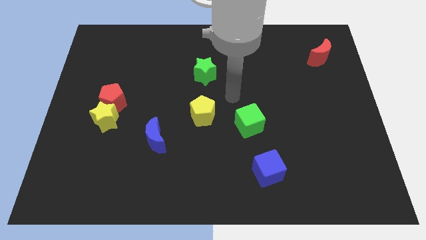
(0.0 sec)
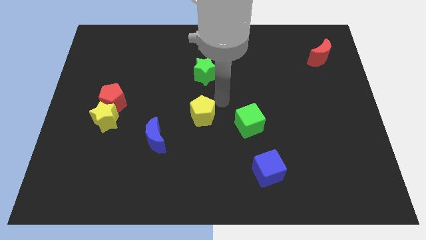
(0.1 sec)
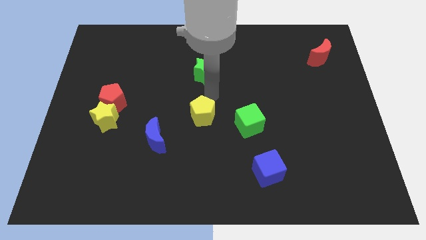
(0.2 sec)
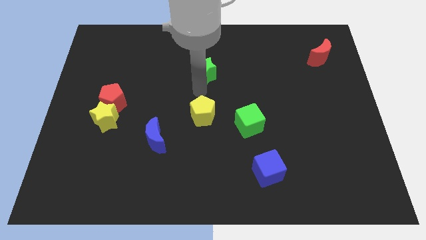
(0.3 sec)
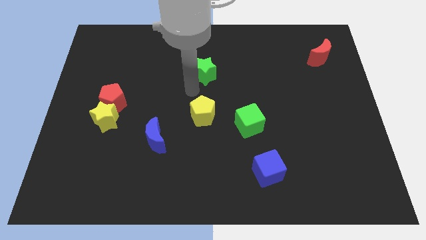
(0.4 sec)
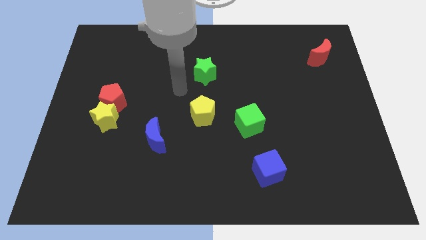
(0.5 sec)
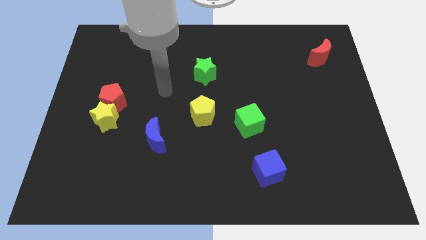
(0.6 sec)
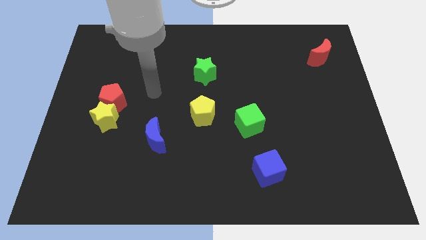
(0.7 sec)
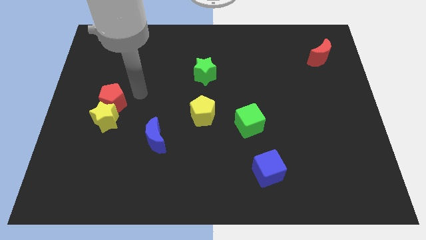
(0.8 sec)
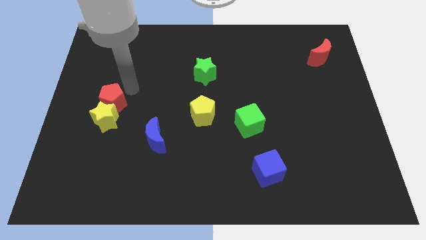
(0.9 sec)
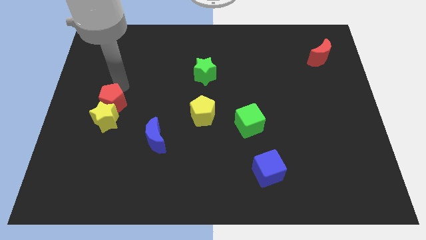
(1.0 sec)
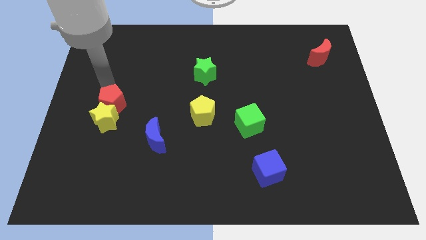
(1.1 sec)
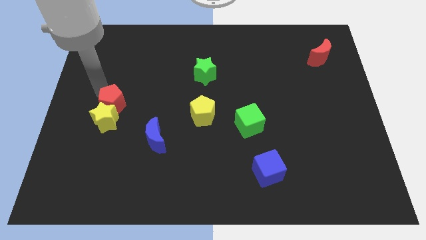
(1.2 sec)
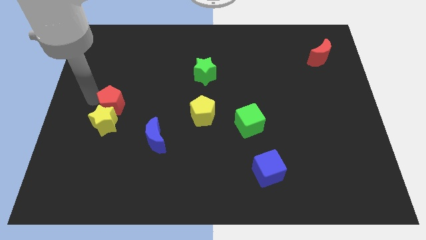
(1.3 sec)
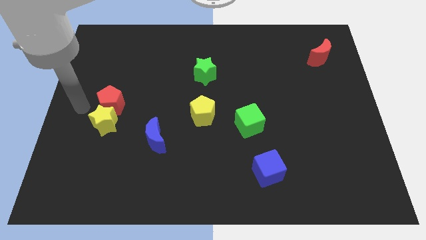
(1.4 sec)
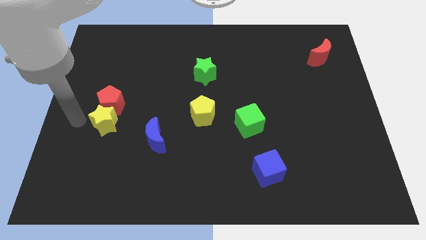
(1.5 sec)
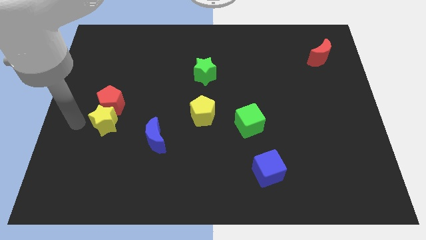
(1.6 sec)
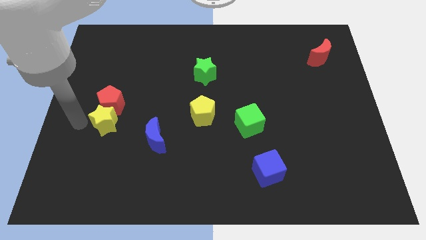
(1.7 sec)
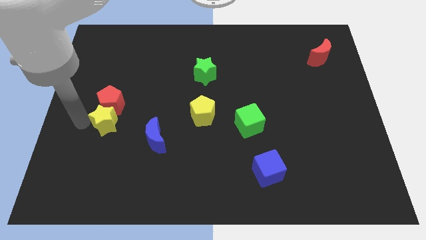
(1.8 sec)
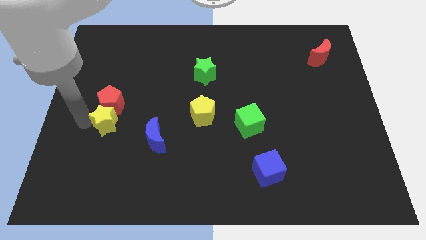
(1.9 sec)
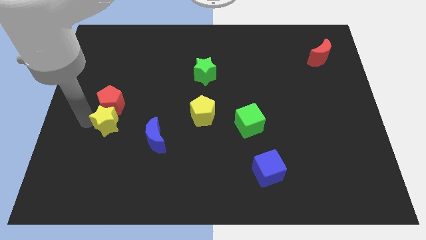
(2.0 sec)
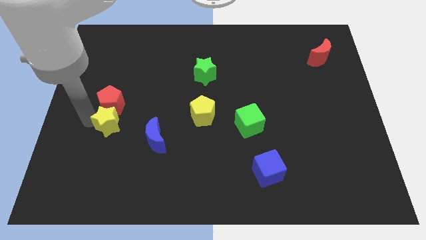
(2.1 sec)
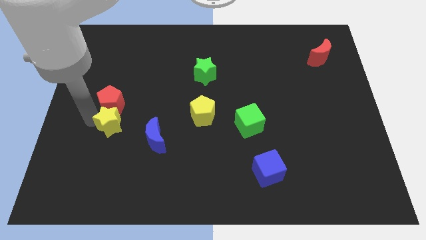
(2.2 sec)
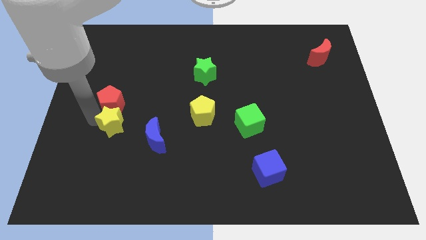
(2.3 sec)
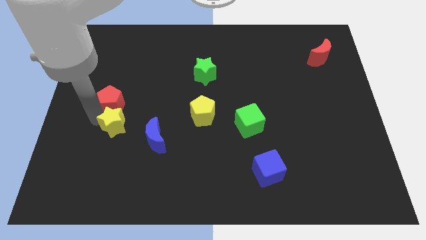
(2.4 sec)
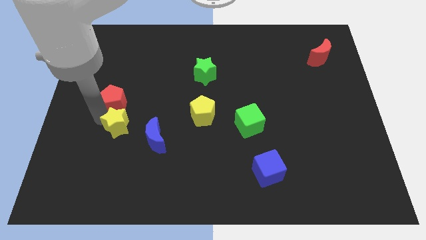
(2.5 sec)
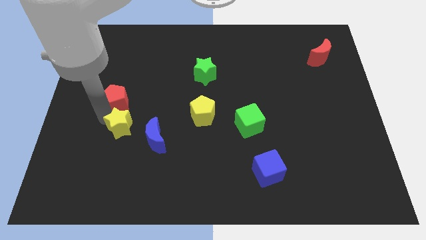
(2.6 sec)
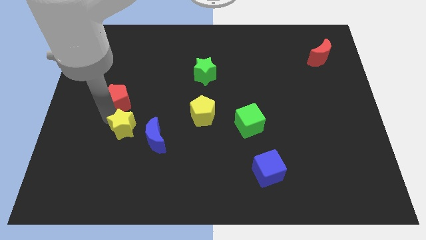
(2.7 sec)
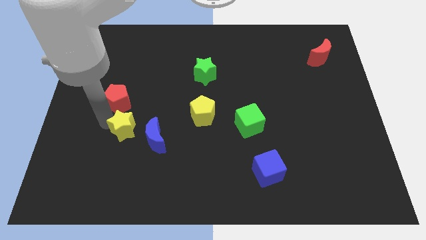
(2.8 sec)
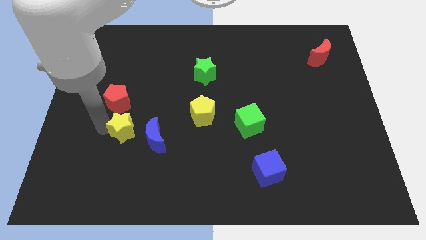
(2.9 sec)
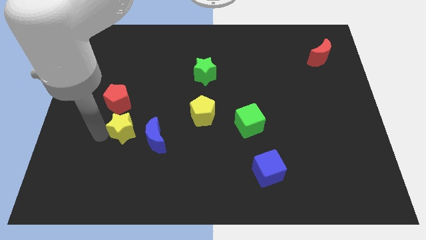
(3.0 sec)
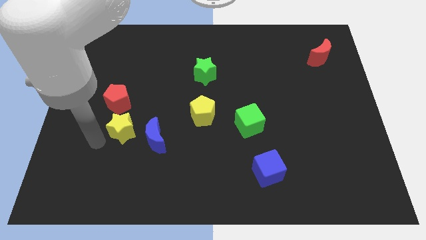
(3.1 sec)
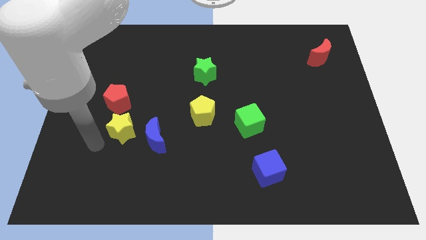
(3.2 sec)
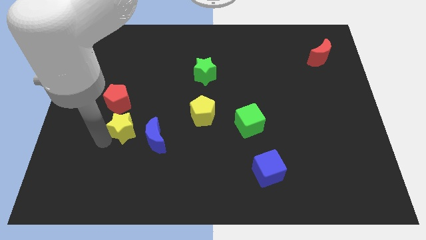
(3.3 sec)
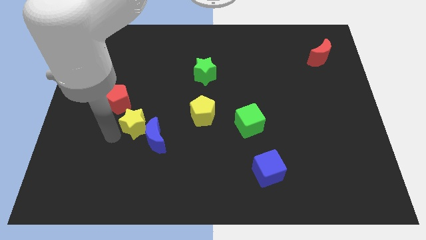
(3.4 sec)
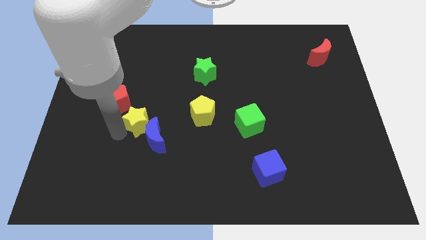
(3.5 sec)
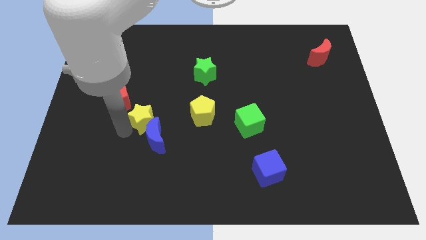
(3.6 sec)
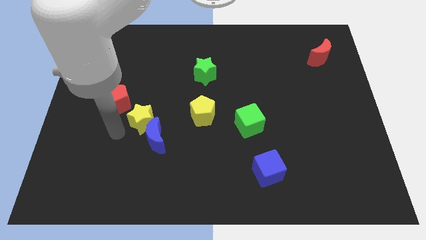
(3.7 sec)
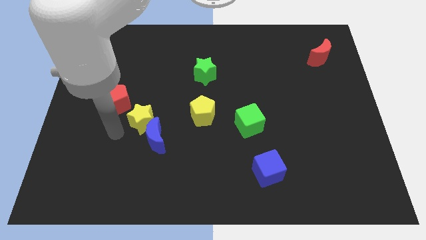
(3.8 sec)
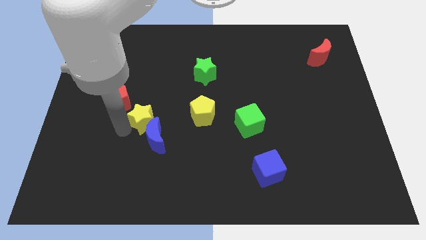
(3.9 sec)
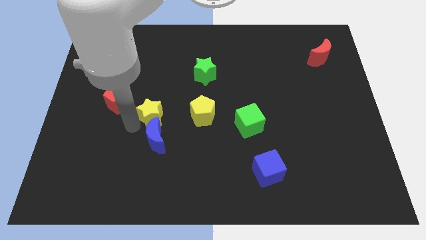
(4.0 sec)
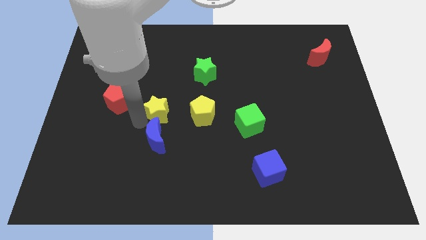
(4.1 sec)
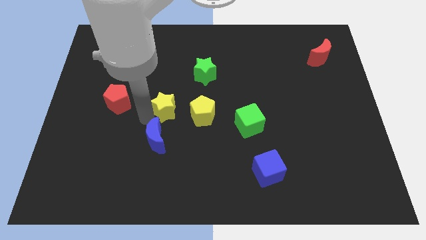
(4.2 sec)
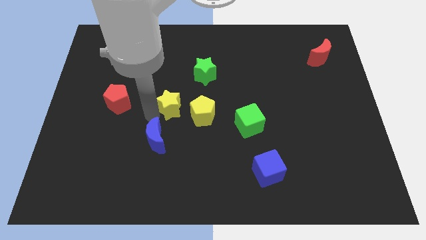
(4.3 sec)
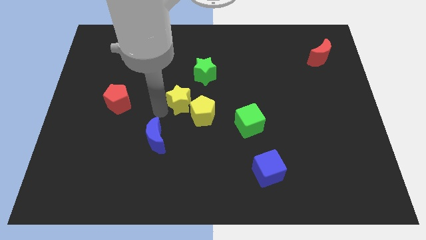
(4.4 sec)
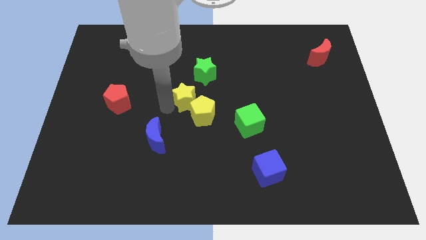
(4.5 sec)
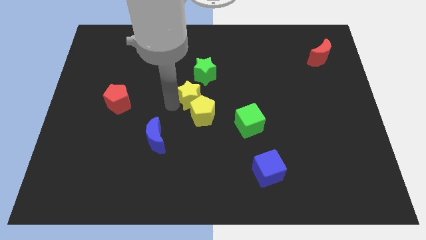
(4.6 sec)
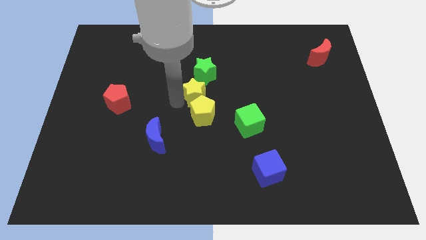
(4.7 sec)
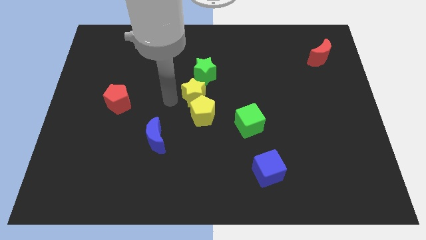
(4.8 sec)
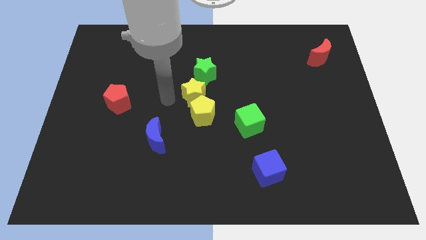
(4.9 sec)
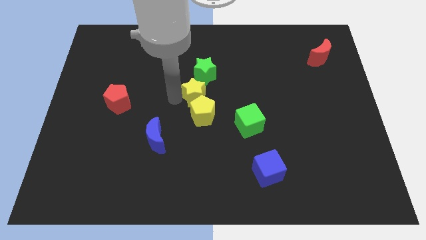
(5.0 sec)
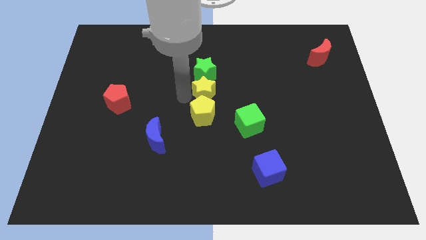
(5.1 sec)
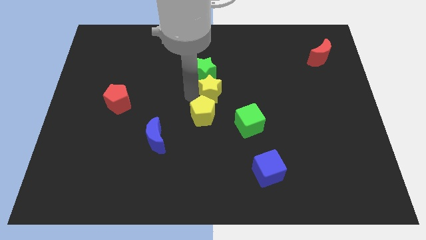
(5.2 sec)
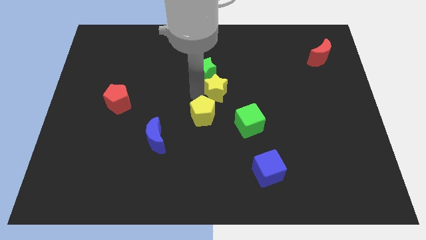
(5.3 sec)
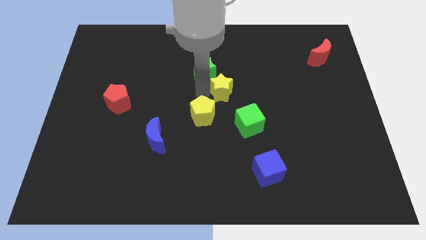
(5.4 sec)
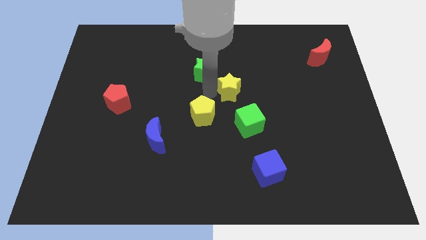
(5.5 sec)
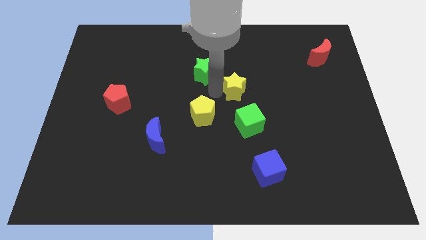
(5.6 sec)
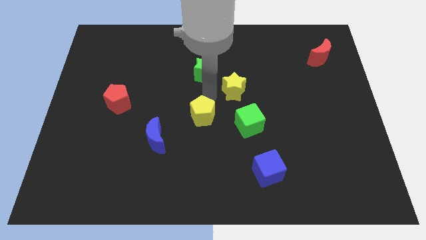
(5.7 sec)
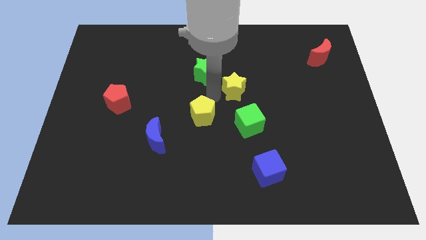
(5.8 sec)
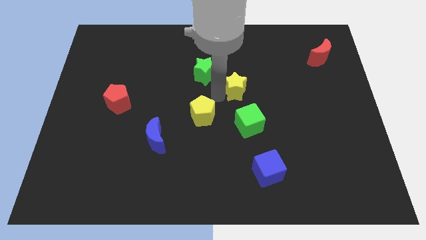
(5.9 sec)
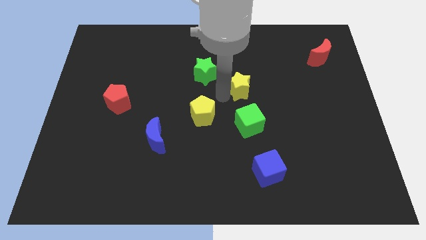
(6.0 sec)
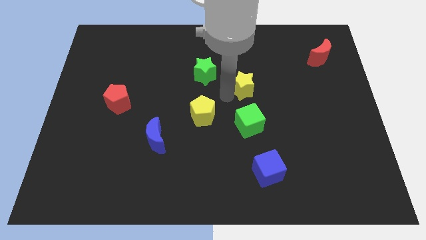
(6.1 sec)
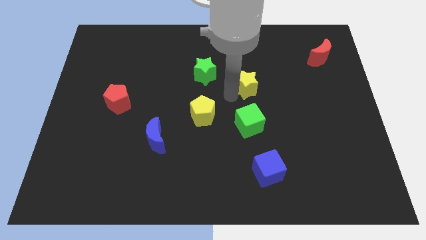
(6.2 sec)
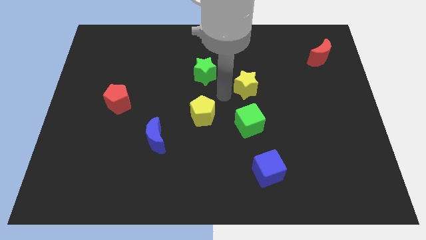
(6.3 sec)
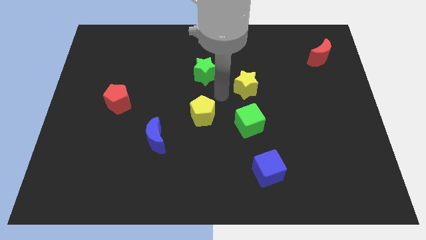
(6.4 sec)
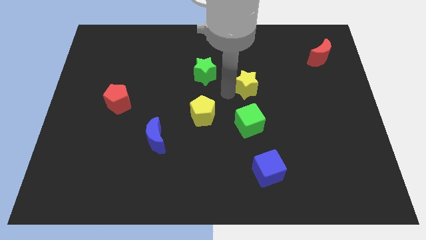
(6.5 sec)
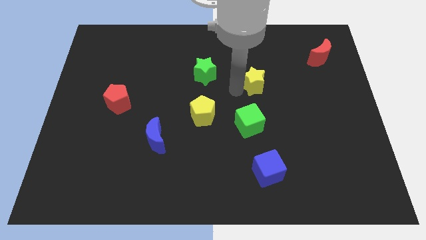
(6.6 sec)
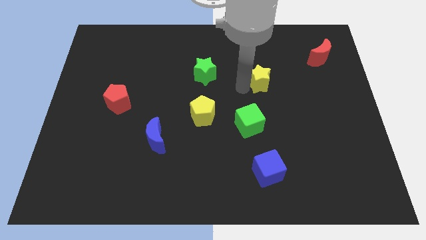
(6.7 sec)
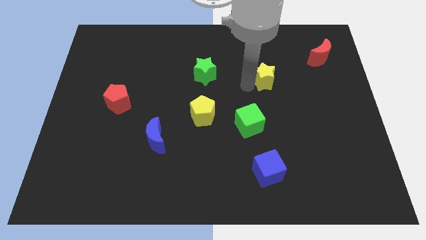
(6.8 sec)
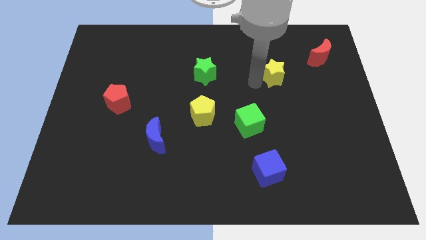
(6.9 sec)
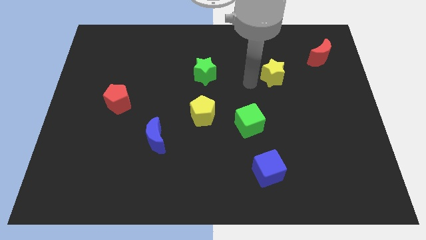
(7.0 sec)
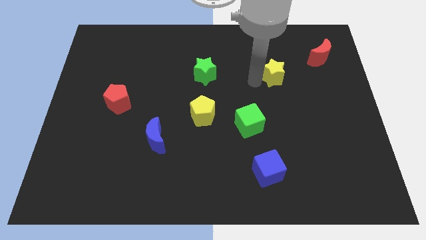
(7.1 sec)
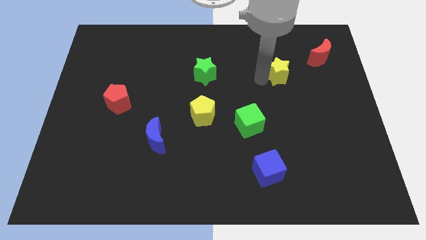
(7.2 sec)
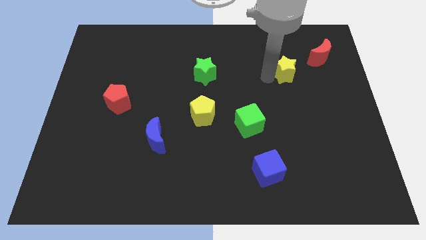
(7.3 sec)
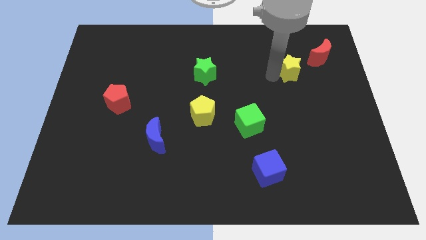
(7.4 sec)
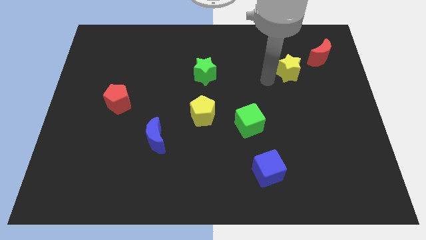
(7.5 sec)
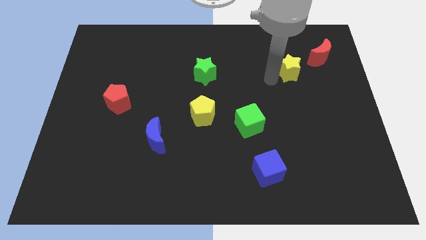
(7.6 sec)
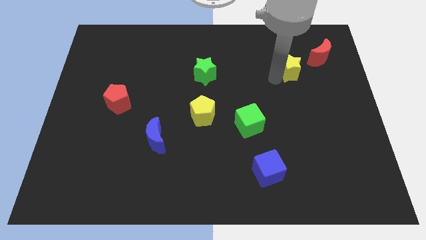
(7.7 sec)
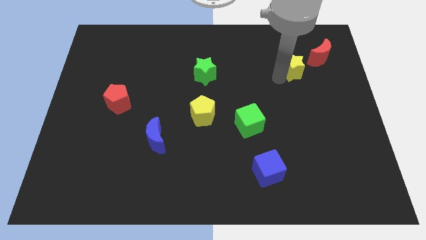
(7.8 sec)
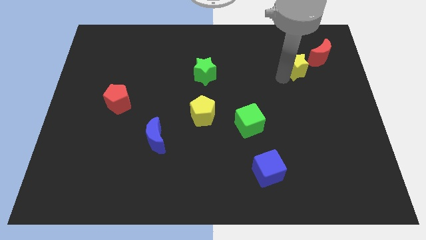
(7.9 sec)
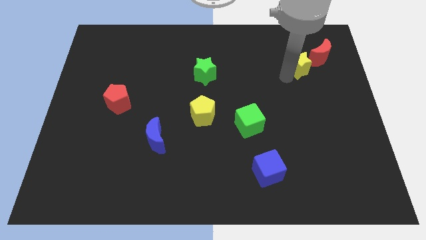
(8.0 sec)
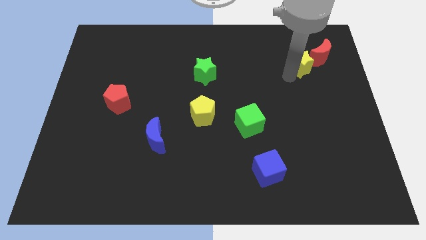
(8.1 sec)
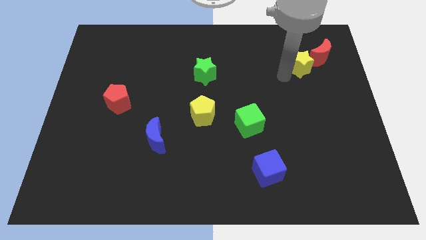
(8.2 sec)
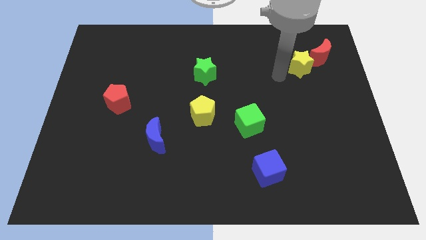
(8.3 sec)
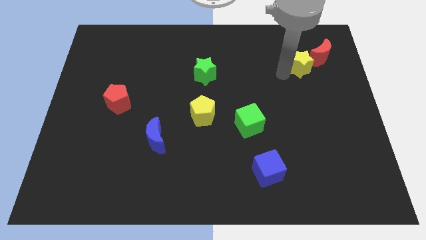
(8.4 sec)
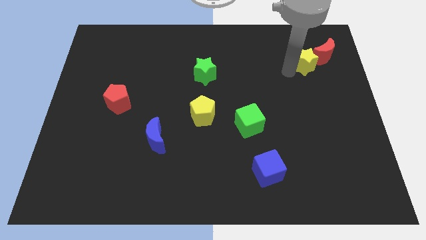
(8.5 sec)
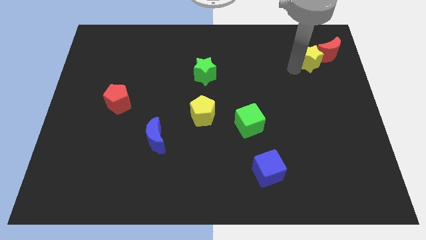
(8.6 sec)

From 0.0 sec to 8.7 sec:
push the yellow star to the red moon
